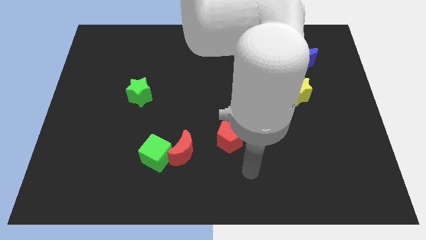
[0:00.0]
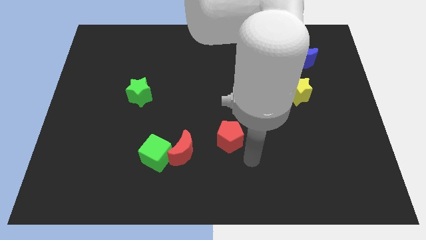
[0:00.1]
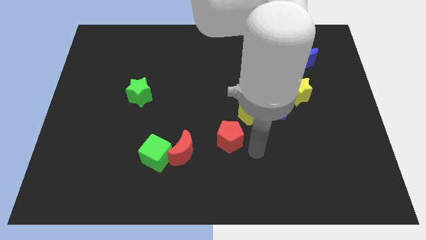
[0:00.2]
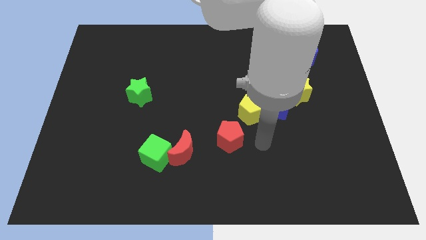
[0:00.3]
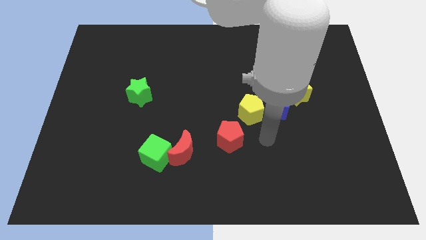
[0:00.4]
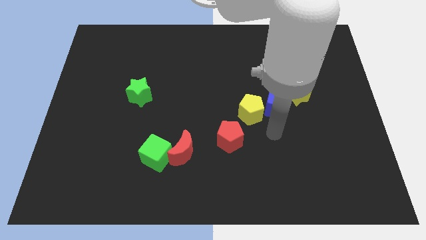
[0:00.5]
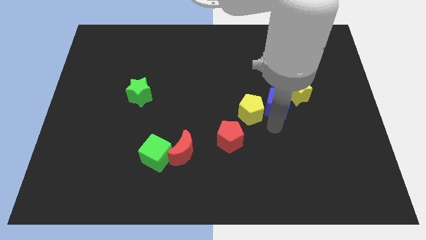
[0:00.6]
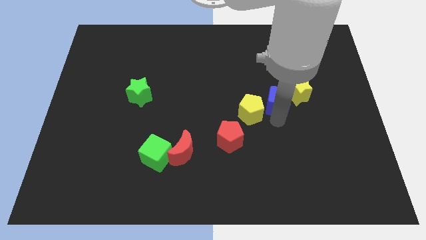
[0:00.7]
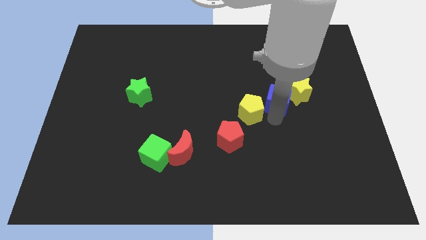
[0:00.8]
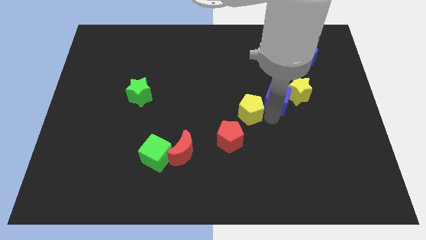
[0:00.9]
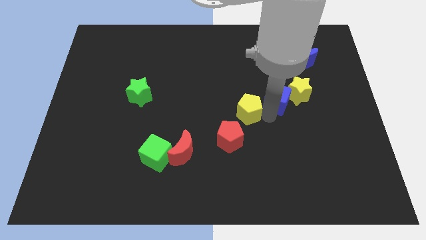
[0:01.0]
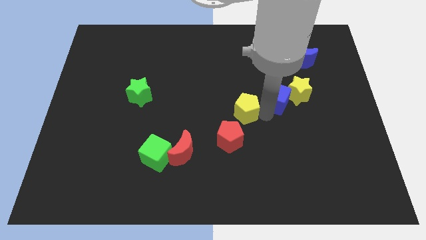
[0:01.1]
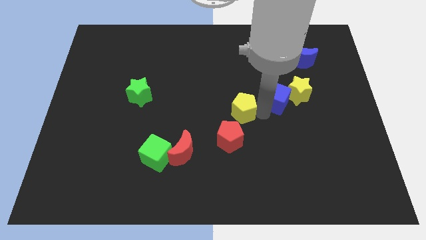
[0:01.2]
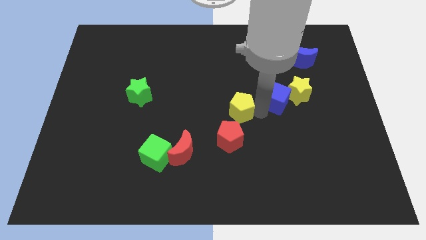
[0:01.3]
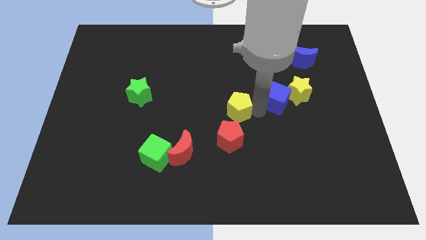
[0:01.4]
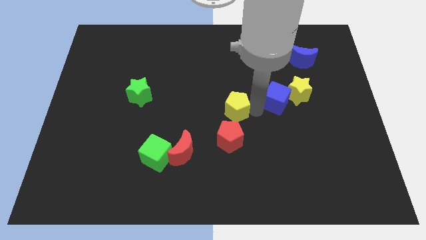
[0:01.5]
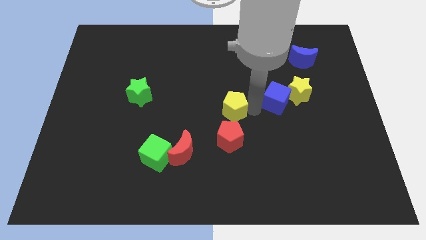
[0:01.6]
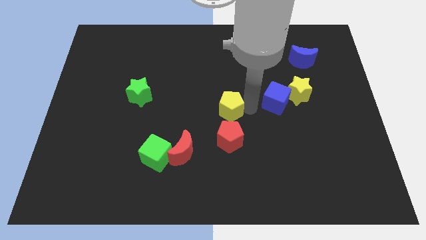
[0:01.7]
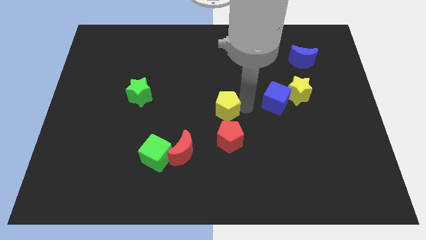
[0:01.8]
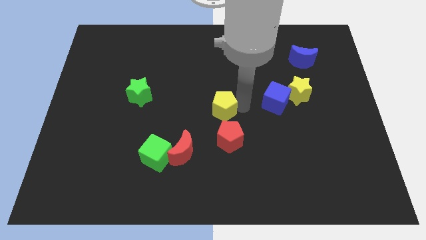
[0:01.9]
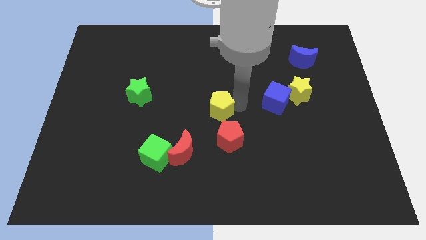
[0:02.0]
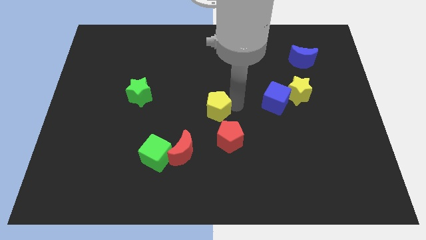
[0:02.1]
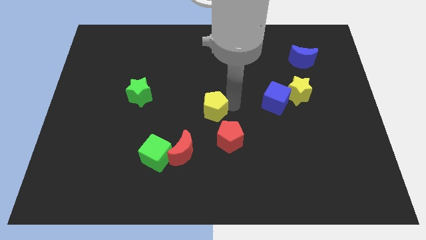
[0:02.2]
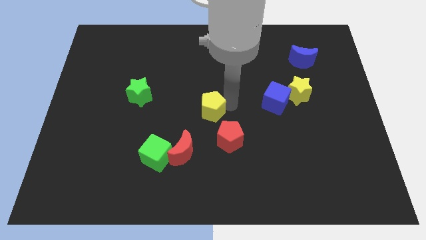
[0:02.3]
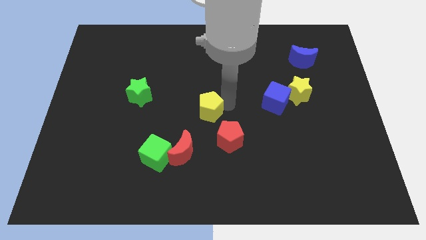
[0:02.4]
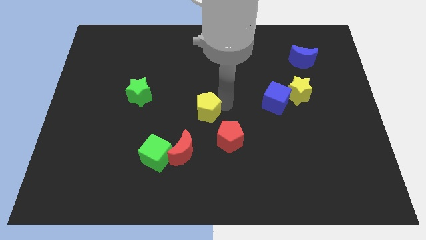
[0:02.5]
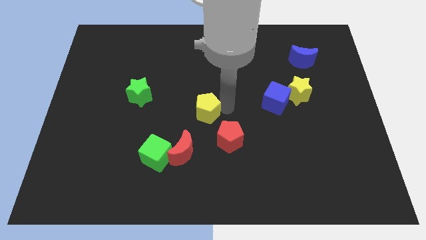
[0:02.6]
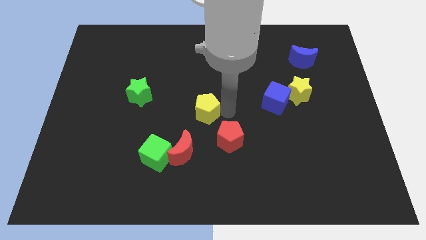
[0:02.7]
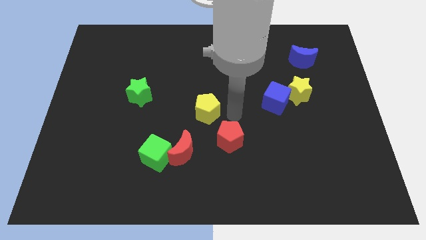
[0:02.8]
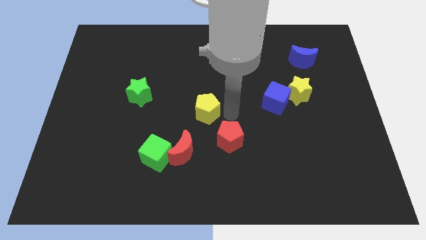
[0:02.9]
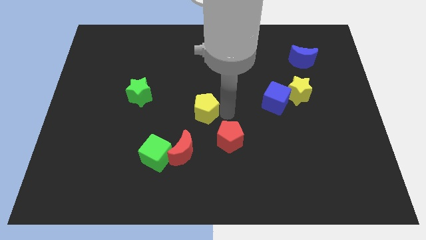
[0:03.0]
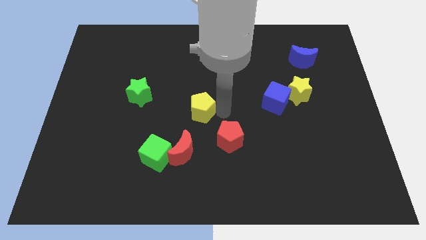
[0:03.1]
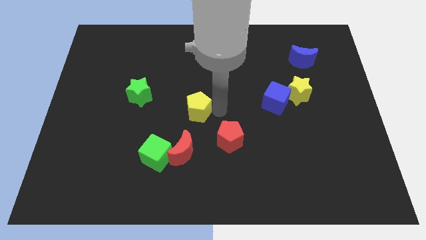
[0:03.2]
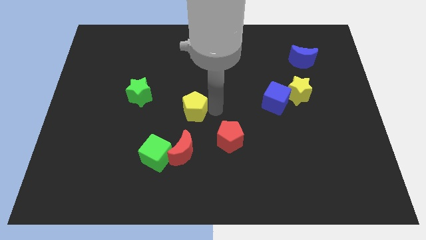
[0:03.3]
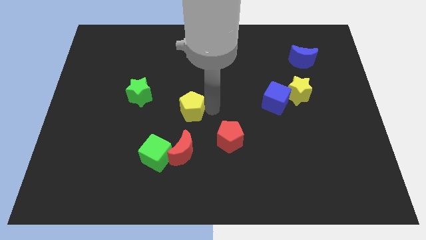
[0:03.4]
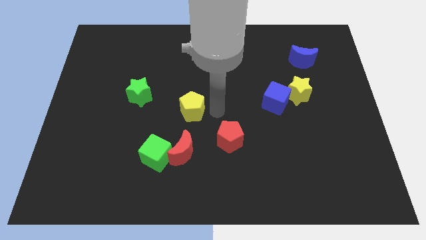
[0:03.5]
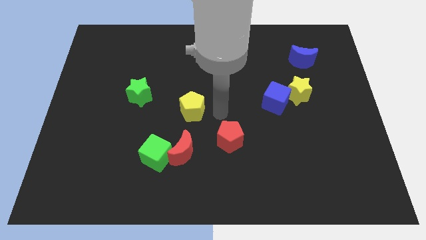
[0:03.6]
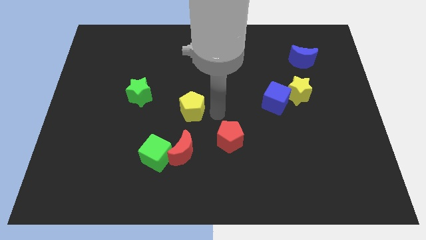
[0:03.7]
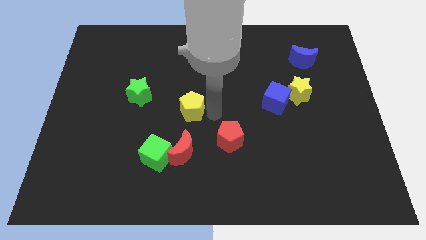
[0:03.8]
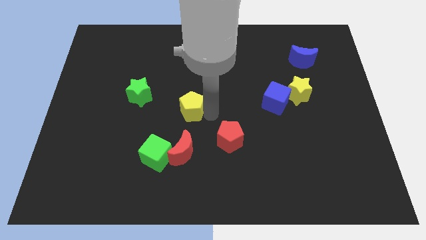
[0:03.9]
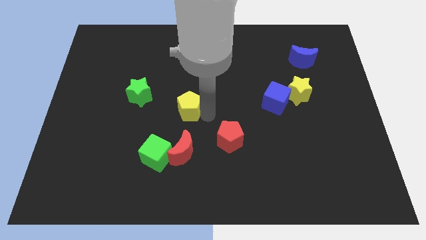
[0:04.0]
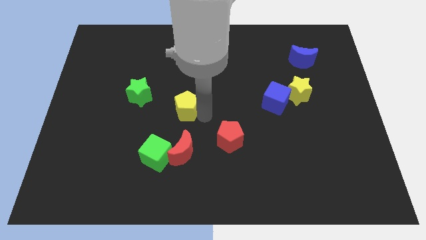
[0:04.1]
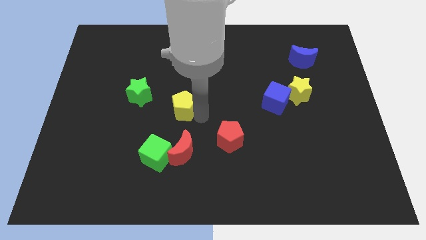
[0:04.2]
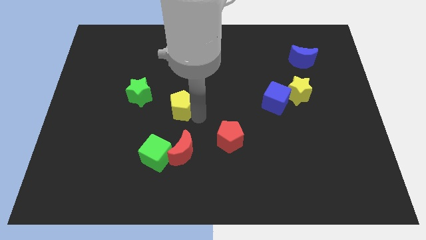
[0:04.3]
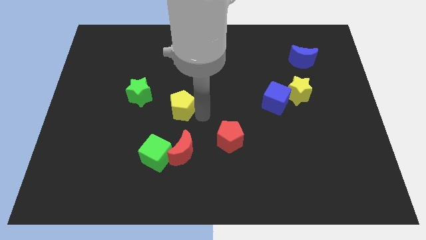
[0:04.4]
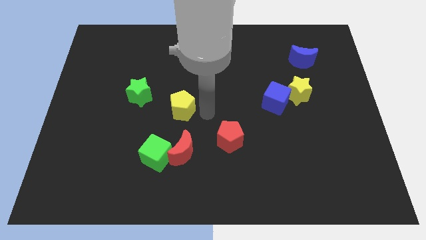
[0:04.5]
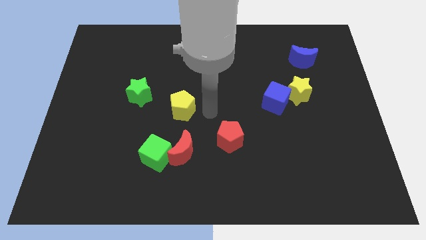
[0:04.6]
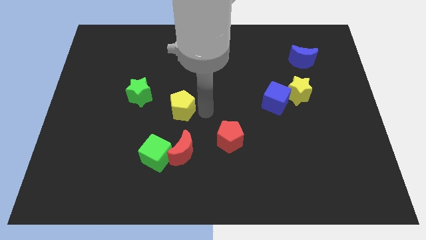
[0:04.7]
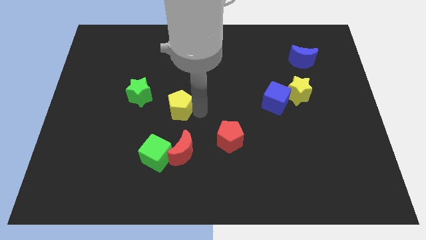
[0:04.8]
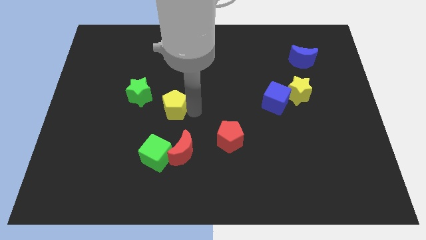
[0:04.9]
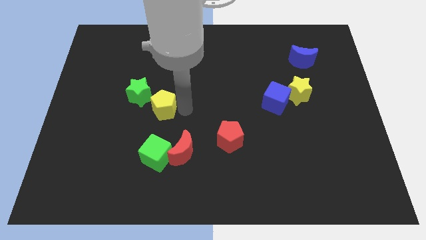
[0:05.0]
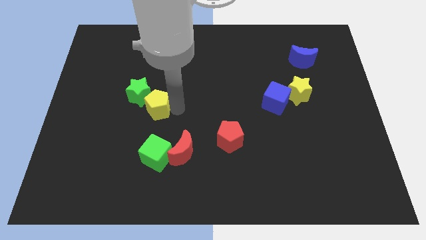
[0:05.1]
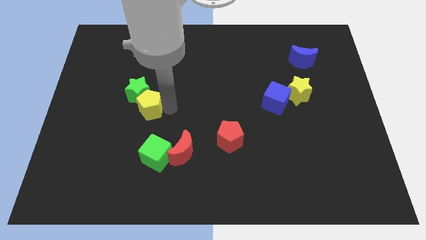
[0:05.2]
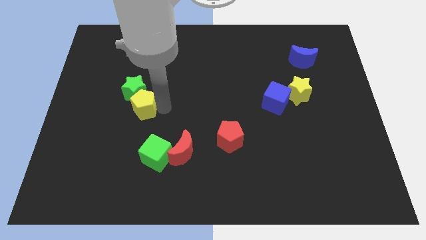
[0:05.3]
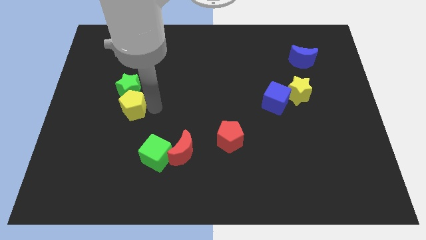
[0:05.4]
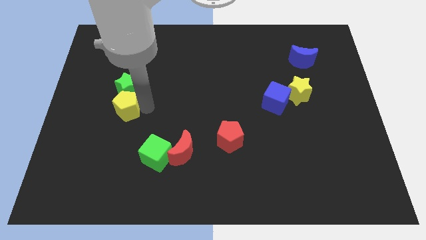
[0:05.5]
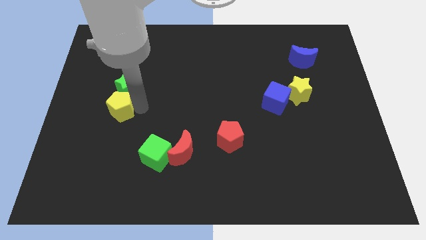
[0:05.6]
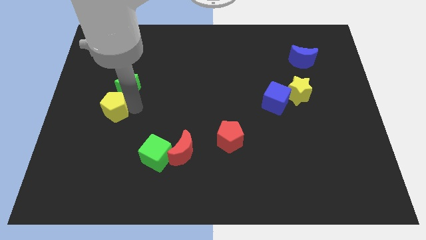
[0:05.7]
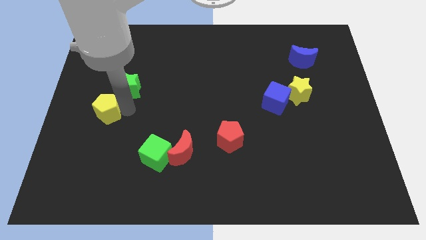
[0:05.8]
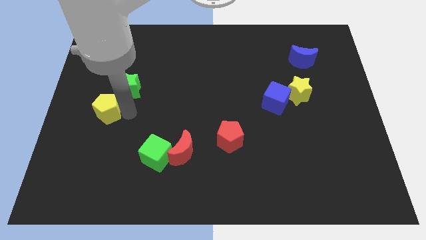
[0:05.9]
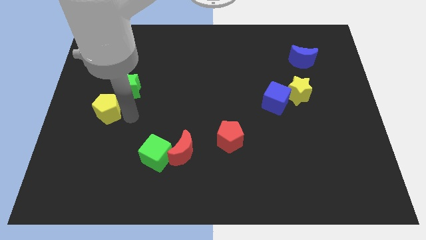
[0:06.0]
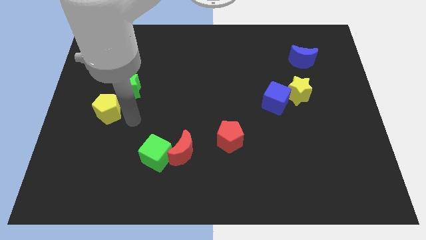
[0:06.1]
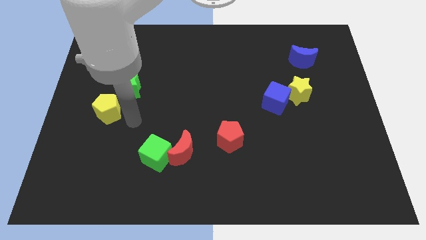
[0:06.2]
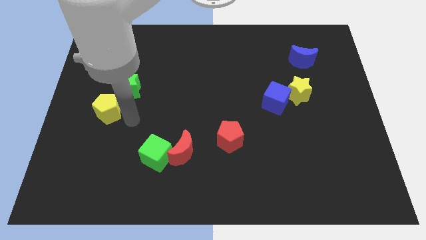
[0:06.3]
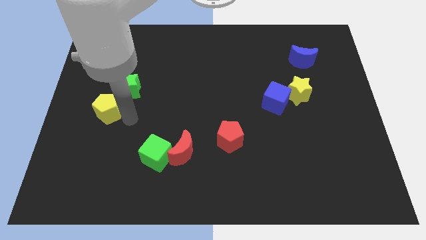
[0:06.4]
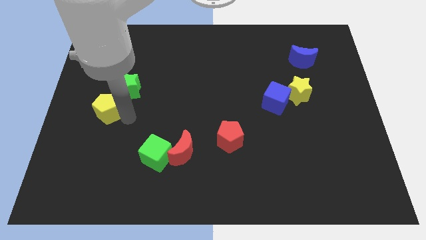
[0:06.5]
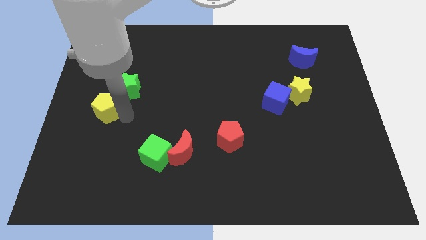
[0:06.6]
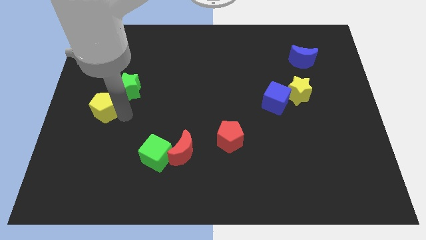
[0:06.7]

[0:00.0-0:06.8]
slide the yellow pentagon to the left side
